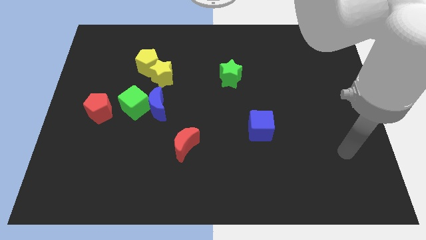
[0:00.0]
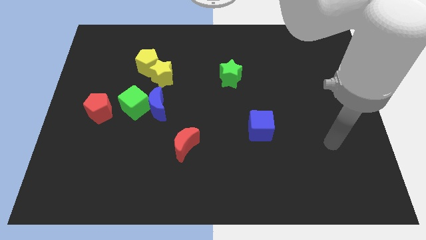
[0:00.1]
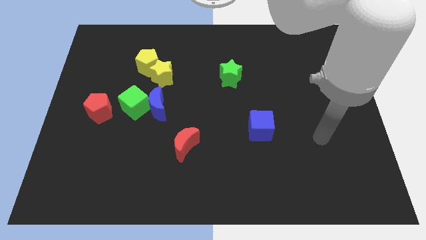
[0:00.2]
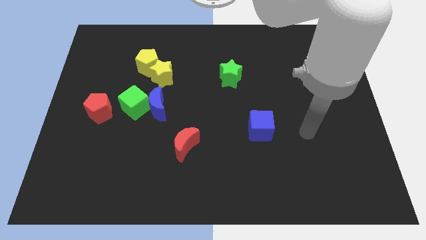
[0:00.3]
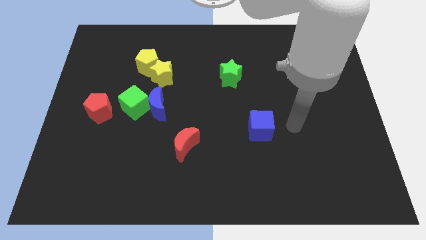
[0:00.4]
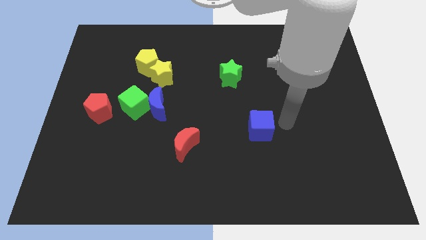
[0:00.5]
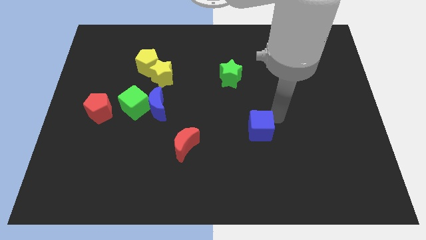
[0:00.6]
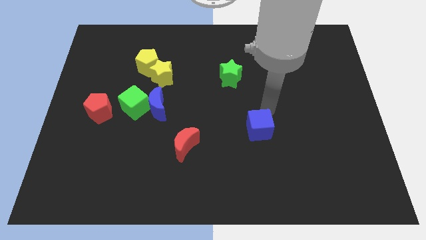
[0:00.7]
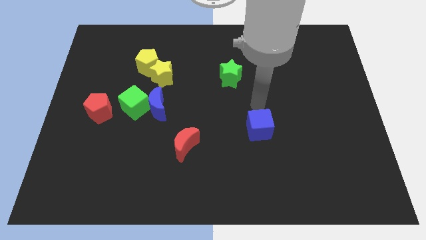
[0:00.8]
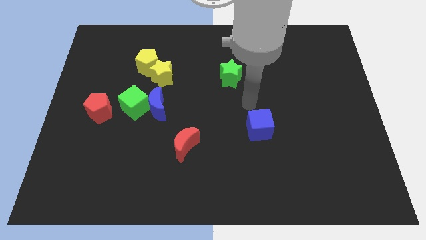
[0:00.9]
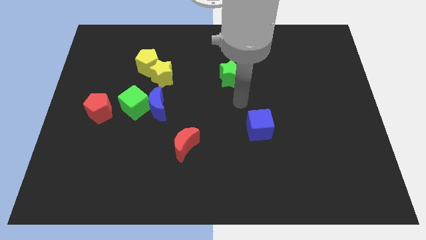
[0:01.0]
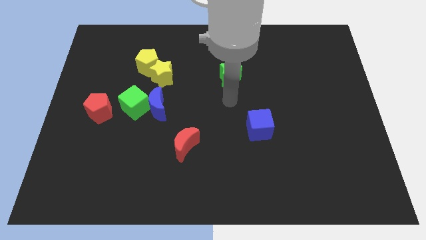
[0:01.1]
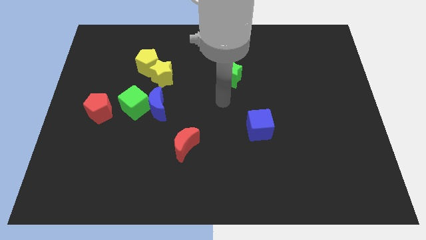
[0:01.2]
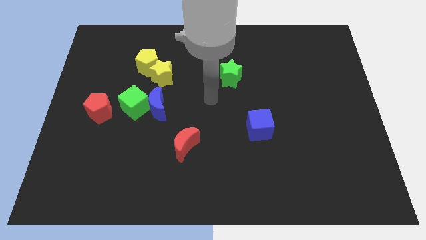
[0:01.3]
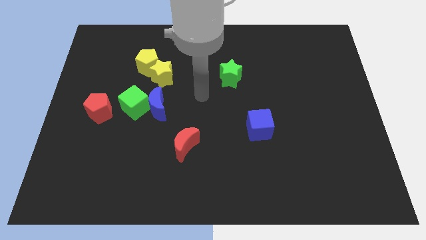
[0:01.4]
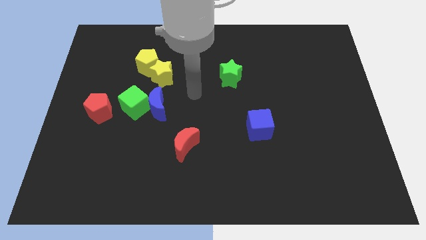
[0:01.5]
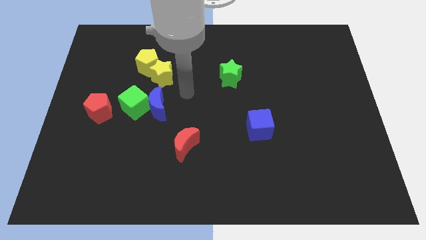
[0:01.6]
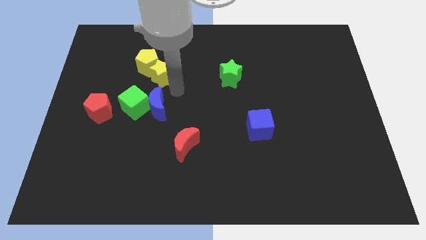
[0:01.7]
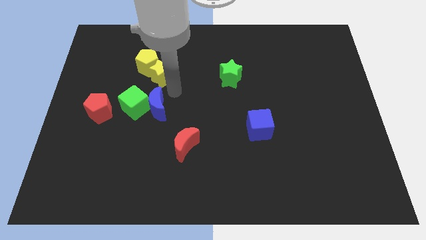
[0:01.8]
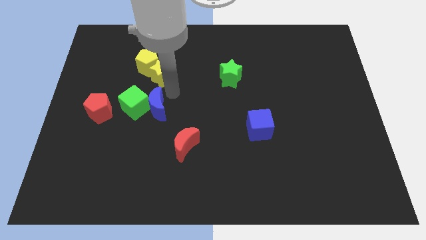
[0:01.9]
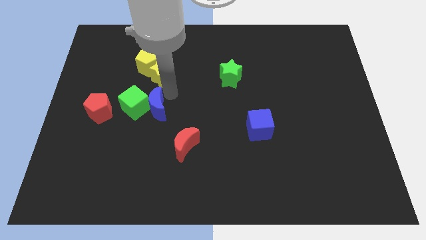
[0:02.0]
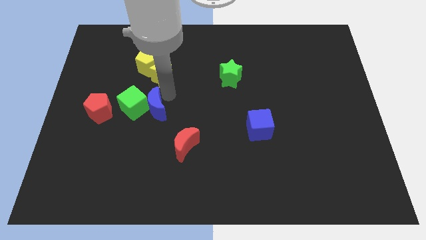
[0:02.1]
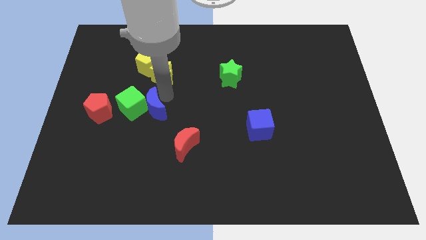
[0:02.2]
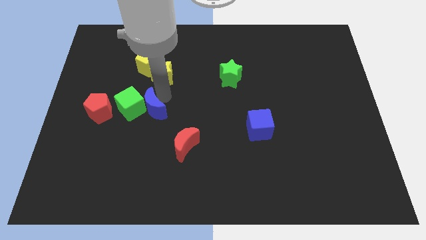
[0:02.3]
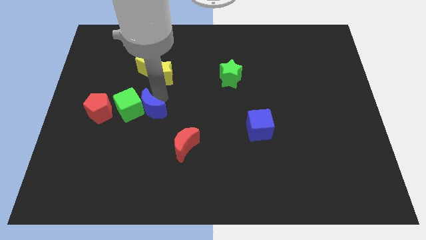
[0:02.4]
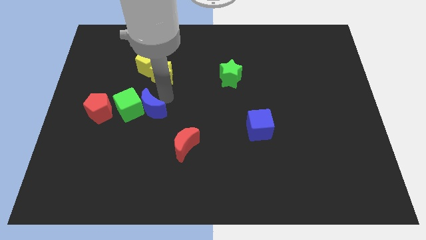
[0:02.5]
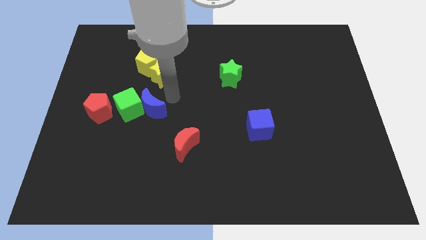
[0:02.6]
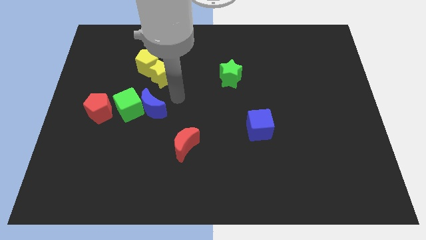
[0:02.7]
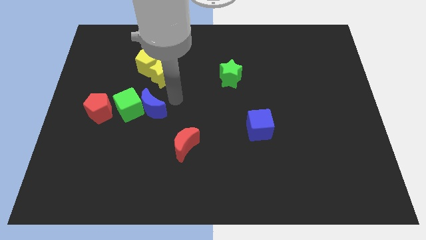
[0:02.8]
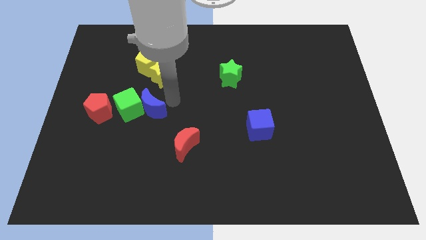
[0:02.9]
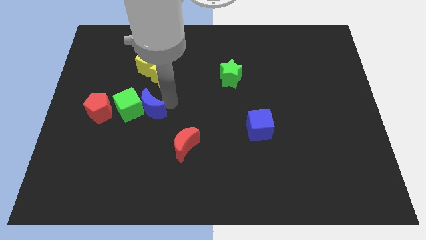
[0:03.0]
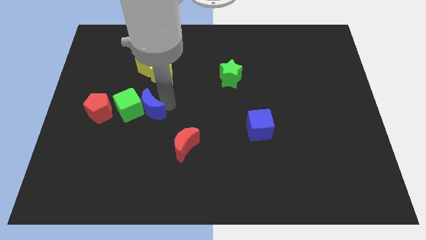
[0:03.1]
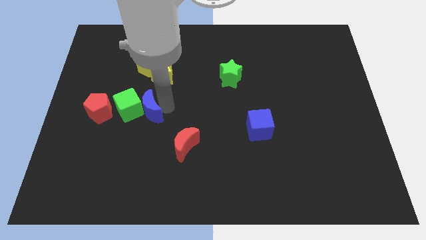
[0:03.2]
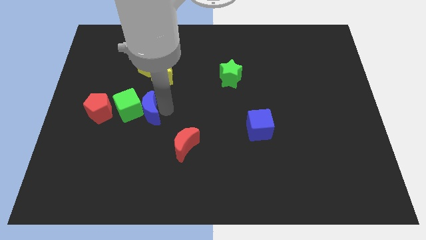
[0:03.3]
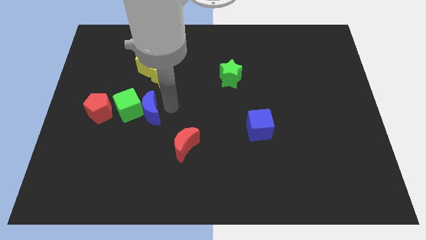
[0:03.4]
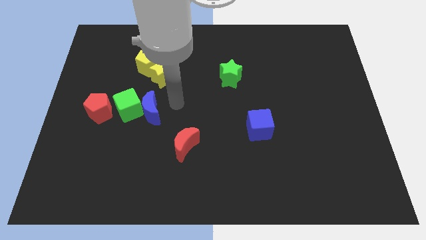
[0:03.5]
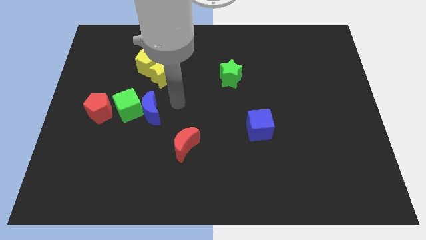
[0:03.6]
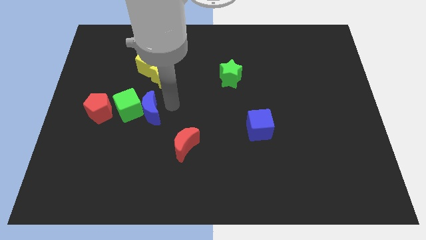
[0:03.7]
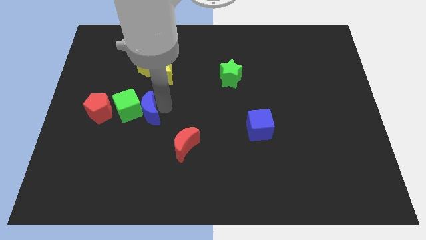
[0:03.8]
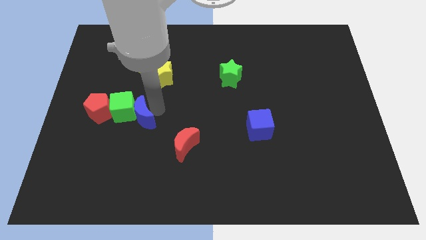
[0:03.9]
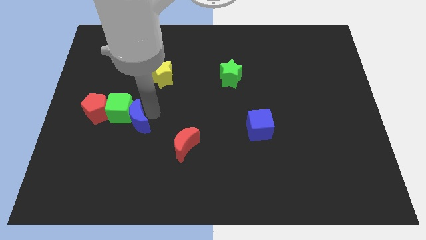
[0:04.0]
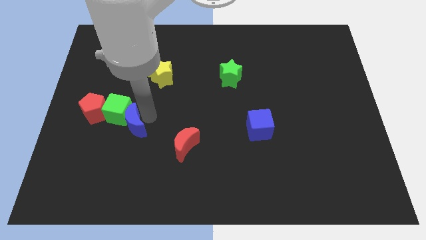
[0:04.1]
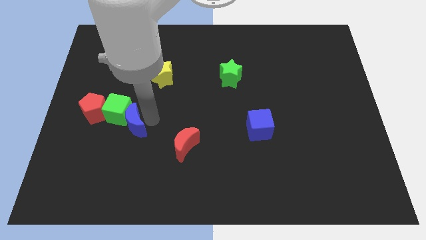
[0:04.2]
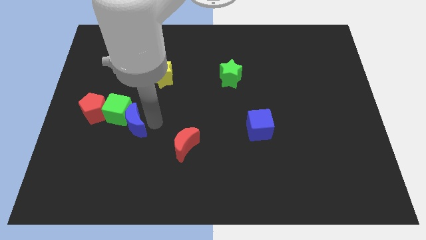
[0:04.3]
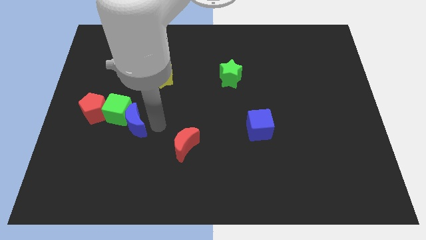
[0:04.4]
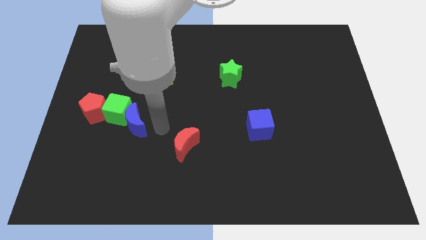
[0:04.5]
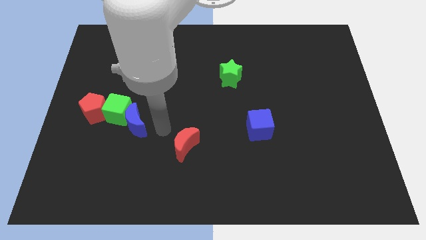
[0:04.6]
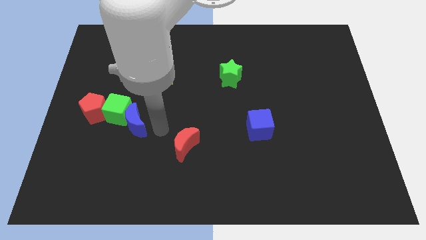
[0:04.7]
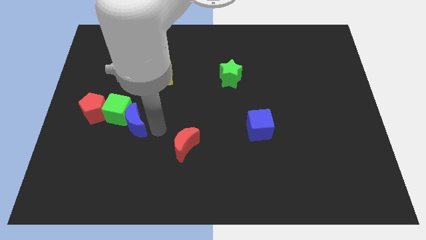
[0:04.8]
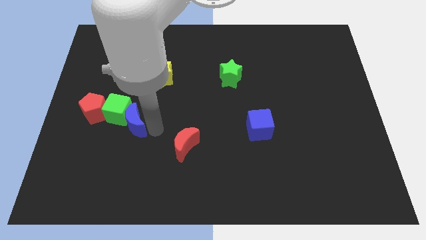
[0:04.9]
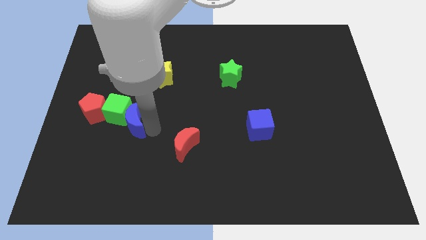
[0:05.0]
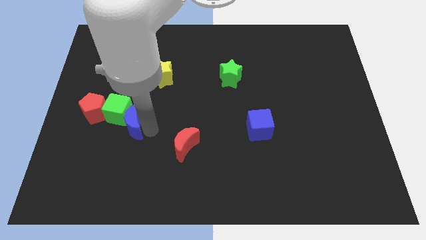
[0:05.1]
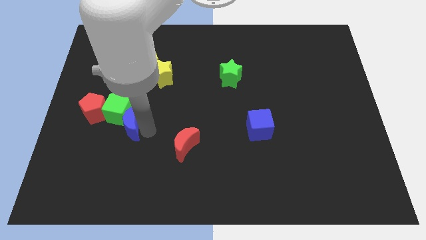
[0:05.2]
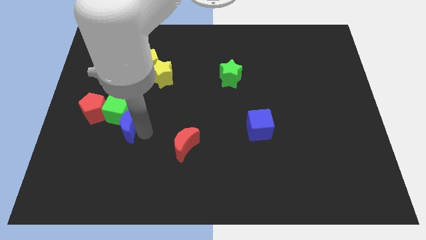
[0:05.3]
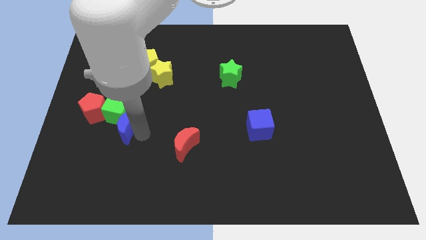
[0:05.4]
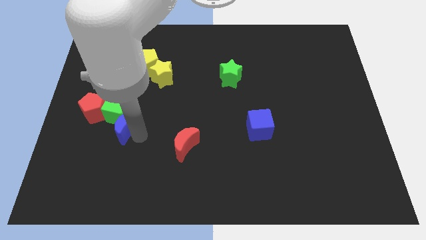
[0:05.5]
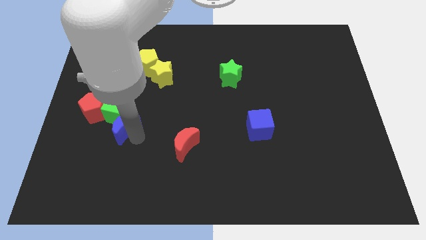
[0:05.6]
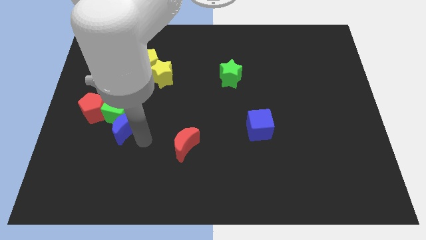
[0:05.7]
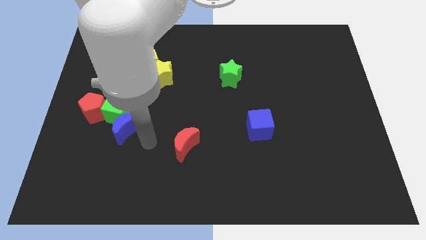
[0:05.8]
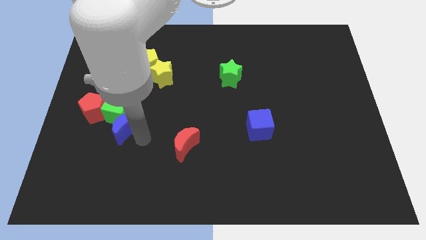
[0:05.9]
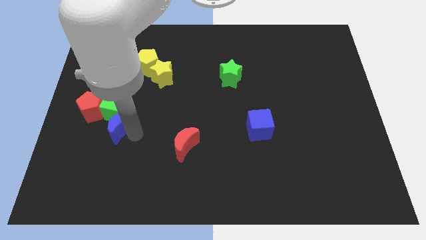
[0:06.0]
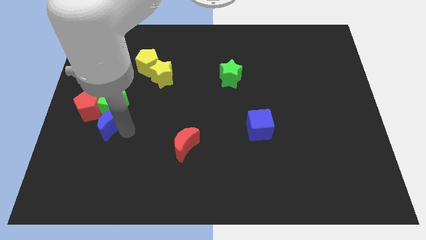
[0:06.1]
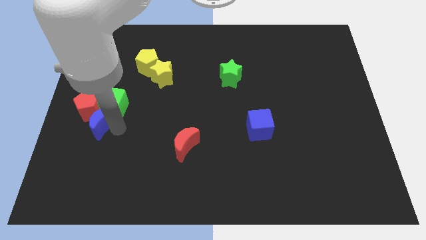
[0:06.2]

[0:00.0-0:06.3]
move the blue moon to the red pentagon

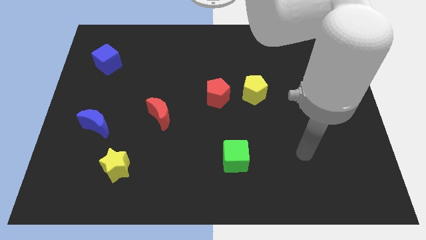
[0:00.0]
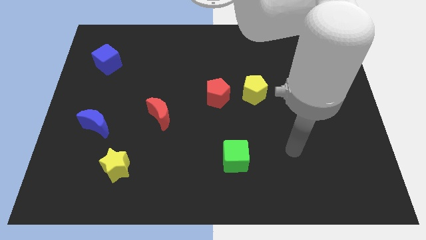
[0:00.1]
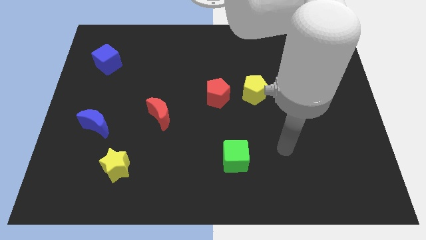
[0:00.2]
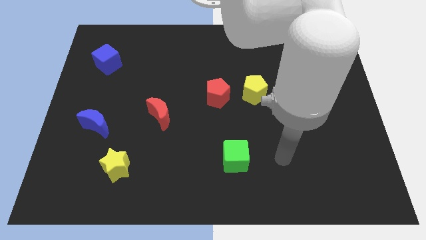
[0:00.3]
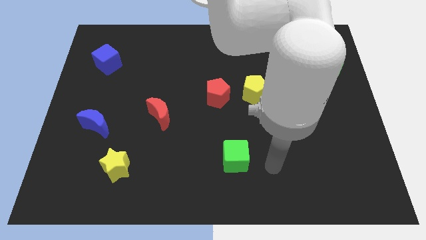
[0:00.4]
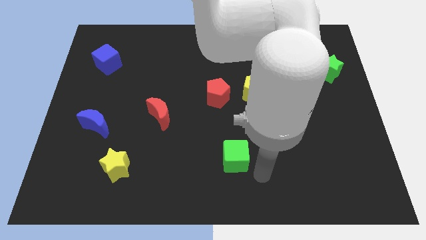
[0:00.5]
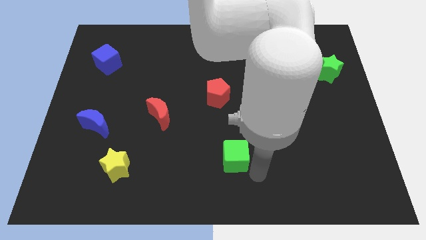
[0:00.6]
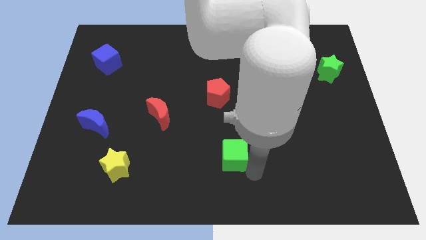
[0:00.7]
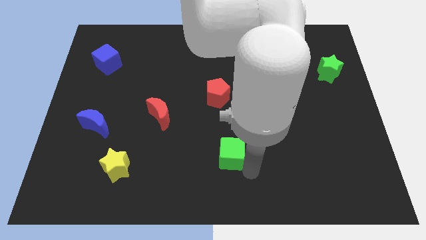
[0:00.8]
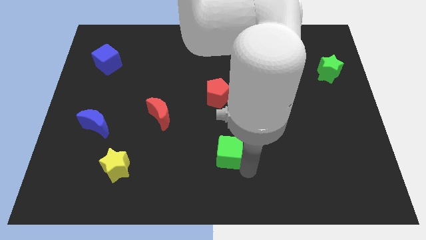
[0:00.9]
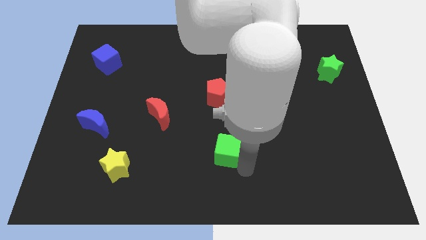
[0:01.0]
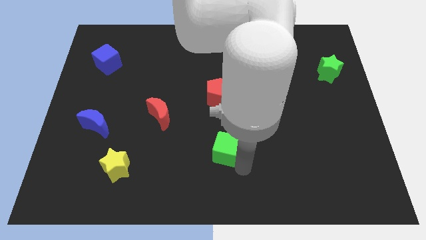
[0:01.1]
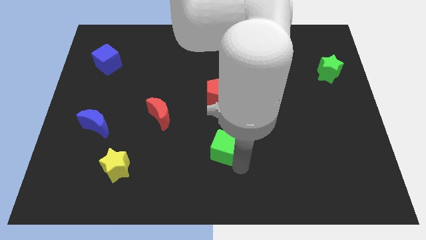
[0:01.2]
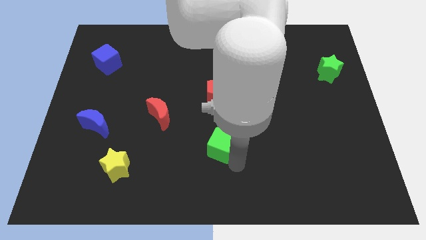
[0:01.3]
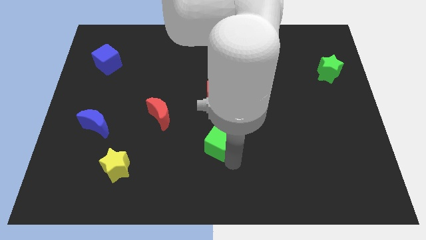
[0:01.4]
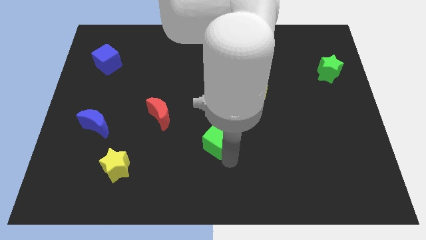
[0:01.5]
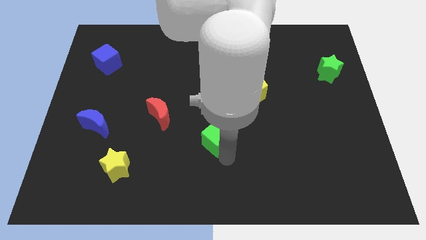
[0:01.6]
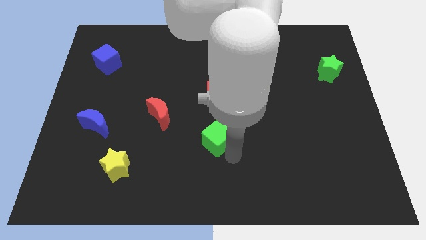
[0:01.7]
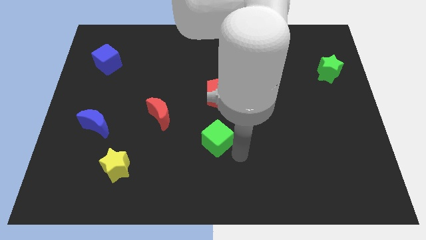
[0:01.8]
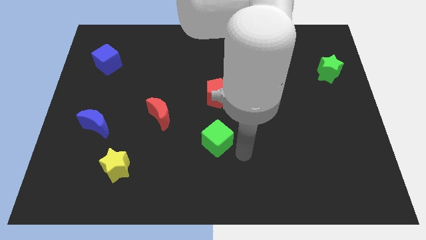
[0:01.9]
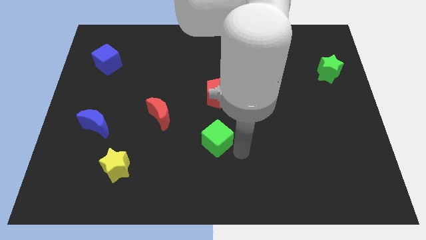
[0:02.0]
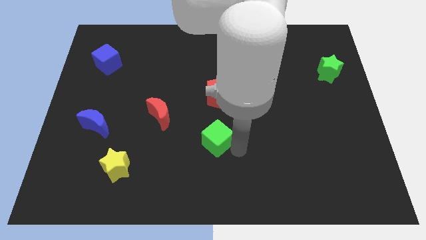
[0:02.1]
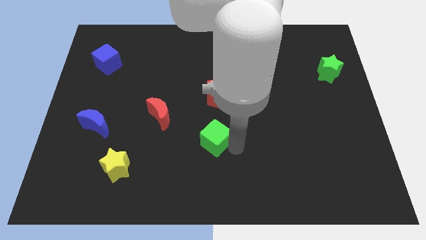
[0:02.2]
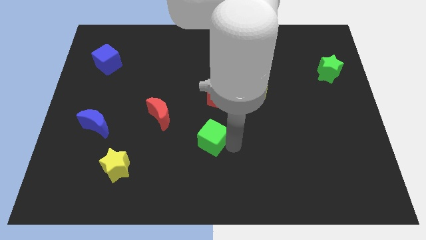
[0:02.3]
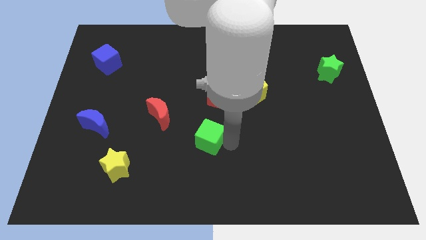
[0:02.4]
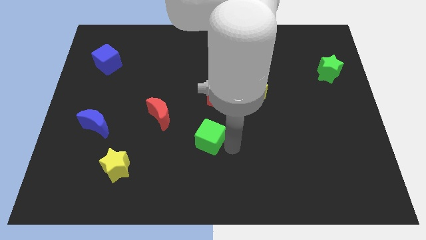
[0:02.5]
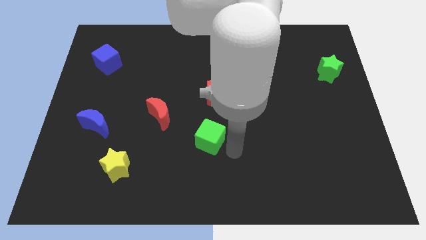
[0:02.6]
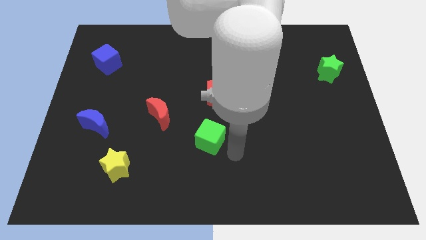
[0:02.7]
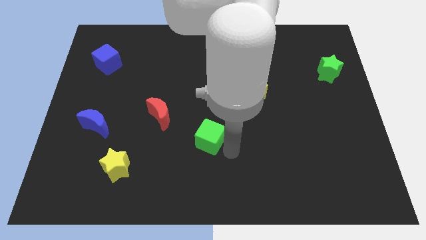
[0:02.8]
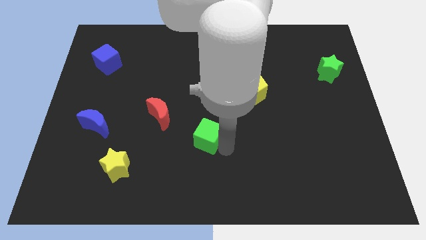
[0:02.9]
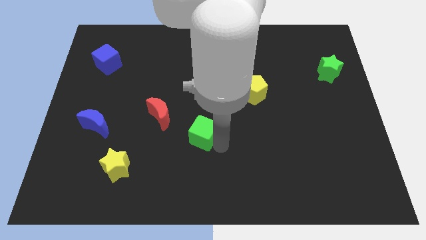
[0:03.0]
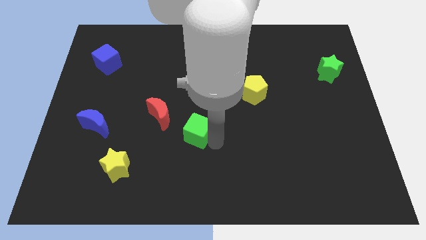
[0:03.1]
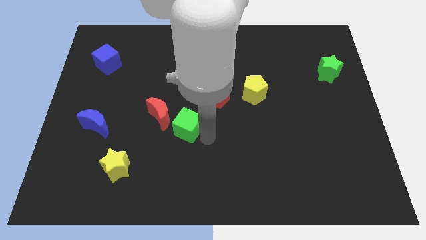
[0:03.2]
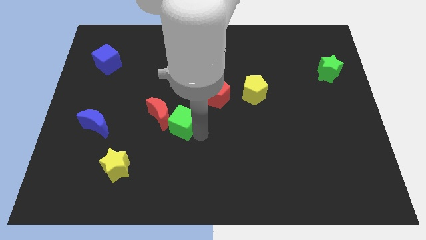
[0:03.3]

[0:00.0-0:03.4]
put the green cube next to the red moon
